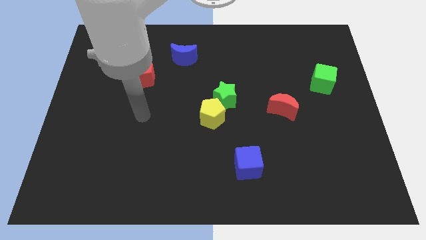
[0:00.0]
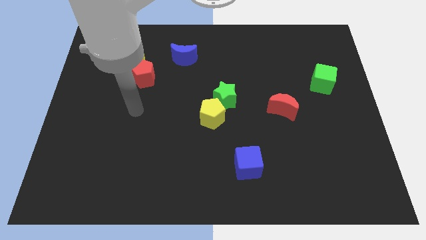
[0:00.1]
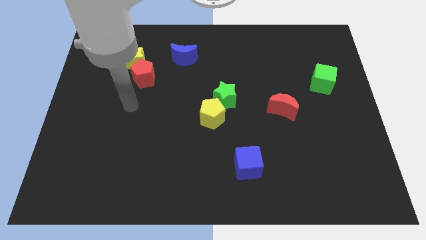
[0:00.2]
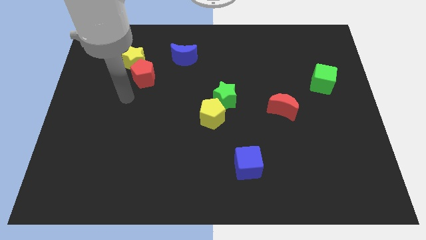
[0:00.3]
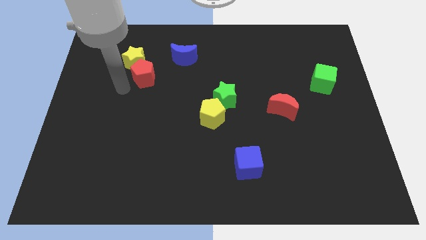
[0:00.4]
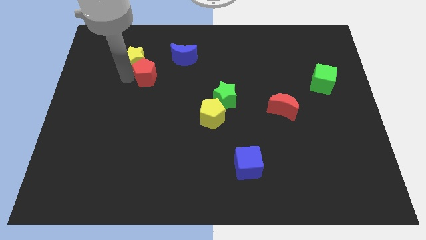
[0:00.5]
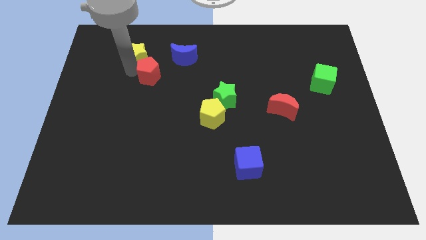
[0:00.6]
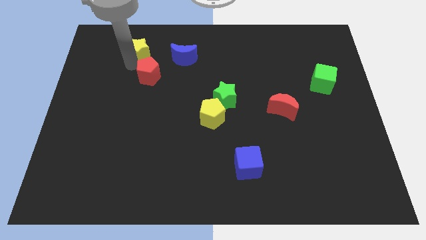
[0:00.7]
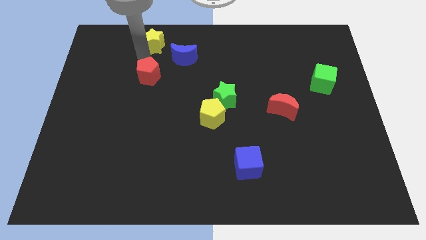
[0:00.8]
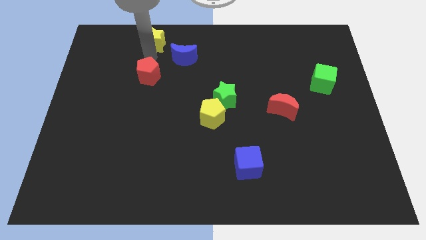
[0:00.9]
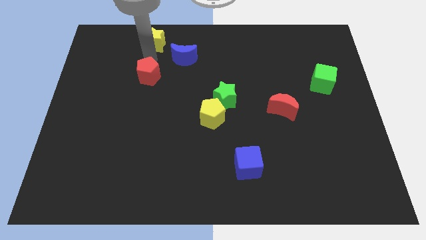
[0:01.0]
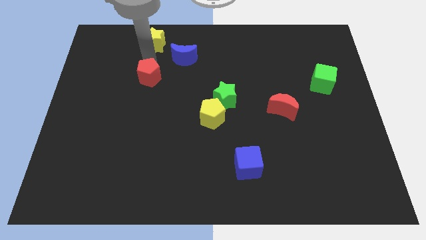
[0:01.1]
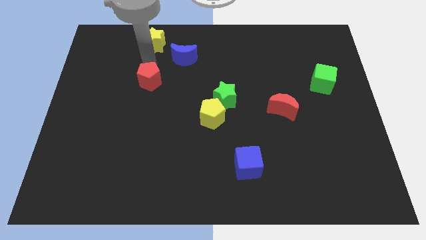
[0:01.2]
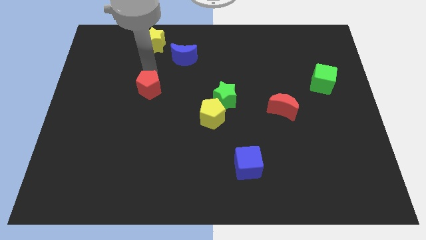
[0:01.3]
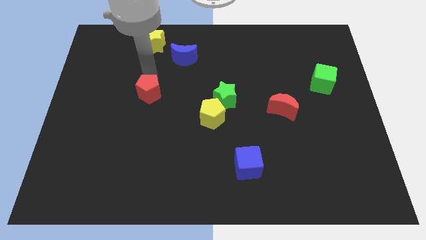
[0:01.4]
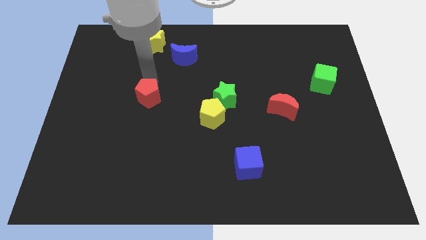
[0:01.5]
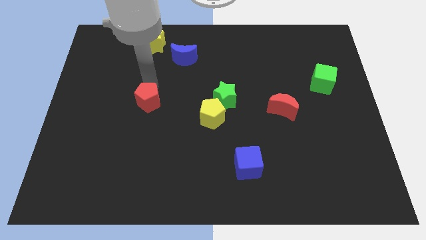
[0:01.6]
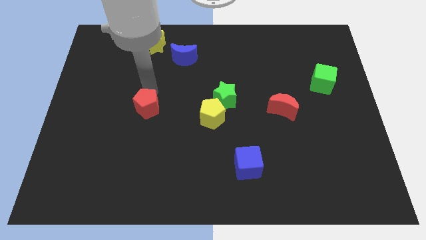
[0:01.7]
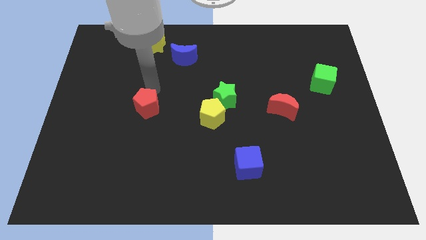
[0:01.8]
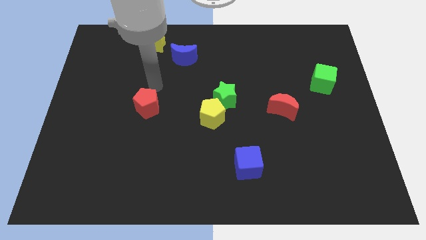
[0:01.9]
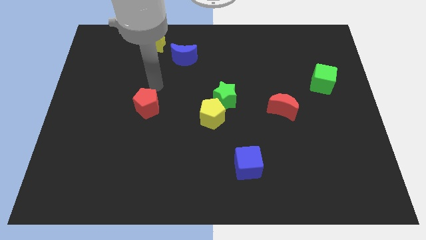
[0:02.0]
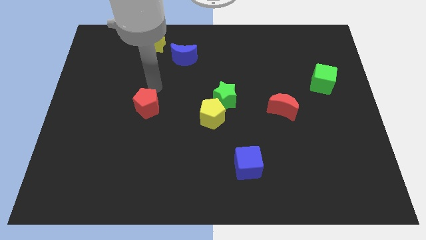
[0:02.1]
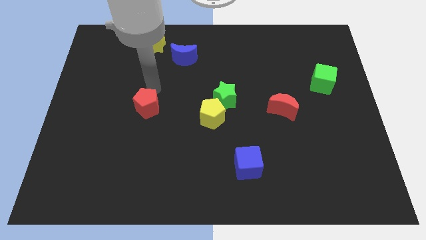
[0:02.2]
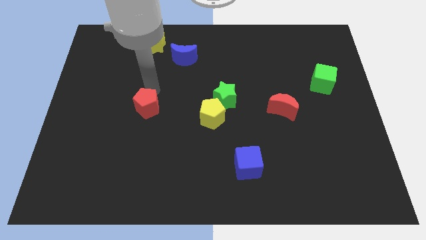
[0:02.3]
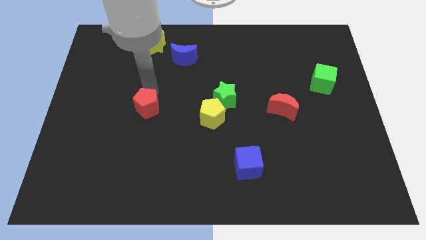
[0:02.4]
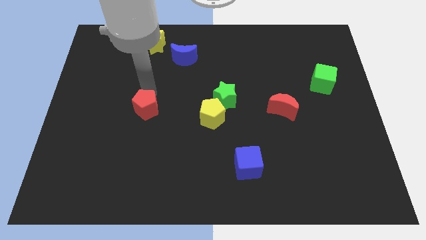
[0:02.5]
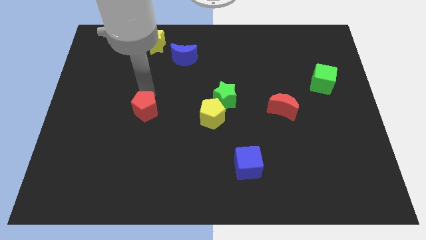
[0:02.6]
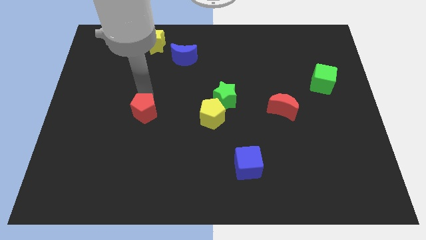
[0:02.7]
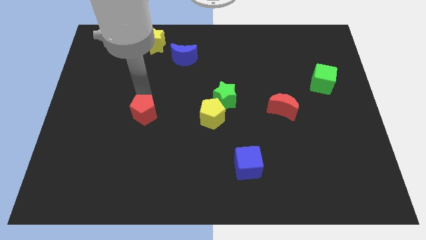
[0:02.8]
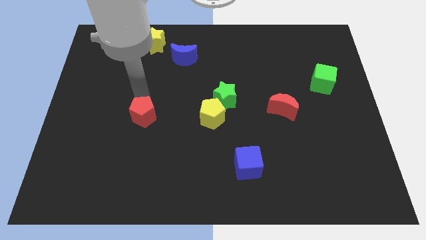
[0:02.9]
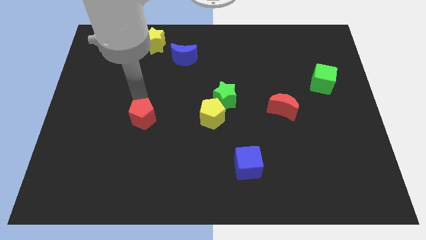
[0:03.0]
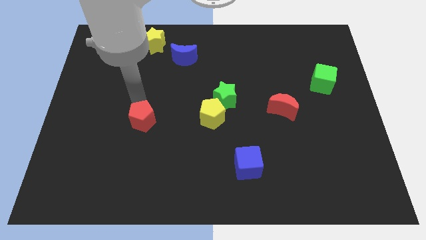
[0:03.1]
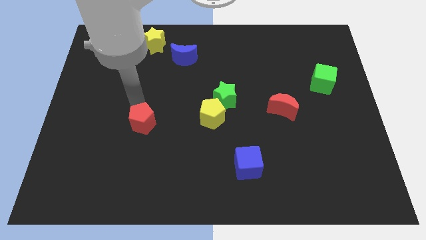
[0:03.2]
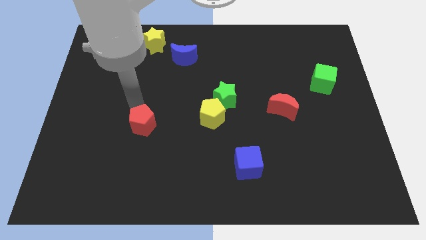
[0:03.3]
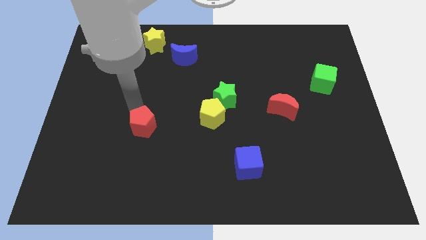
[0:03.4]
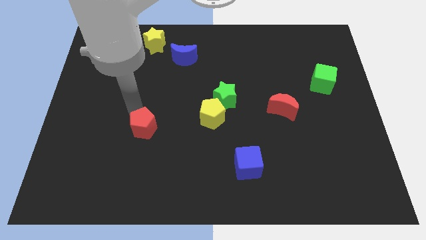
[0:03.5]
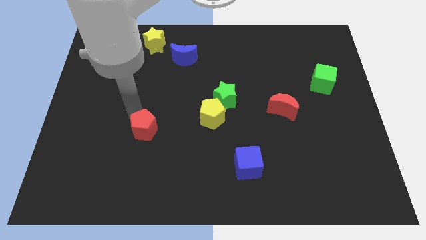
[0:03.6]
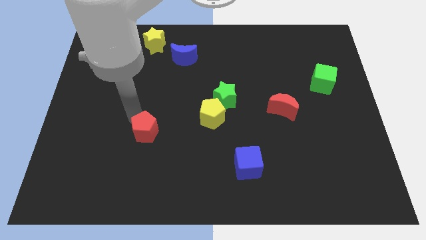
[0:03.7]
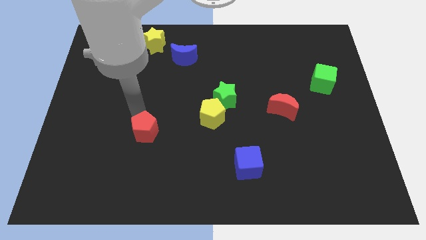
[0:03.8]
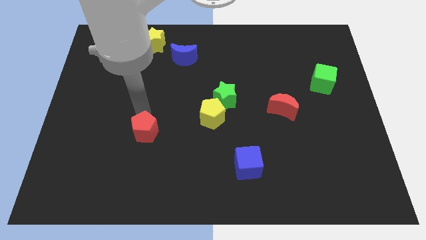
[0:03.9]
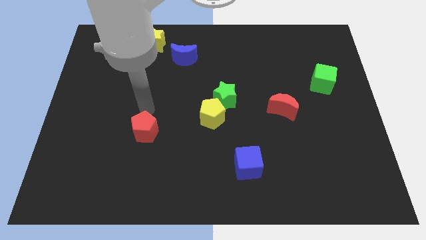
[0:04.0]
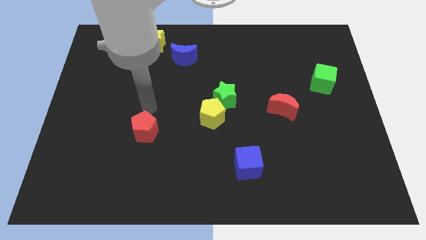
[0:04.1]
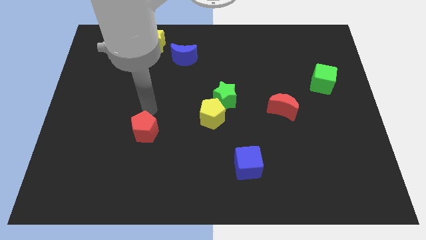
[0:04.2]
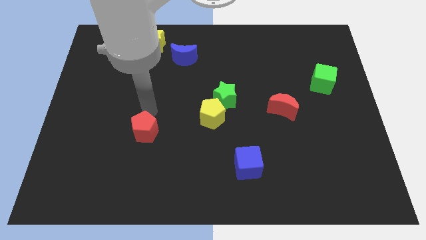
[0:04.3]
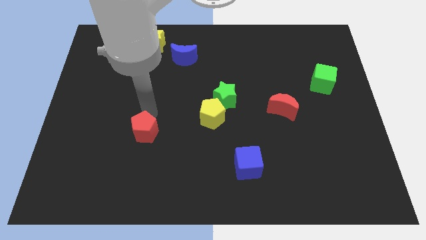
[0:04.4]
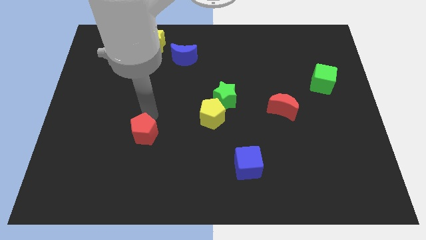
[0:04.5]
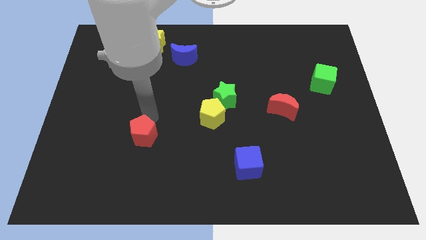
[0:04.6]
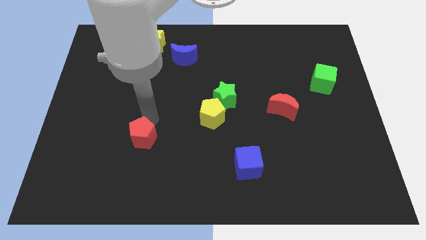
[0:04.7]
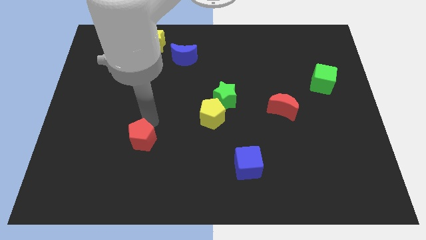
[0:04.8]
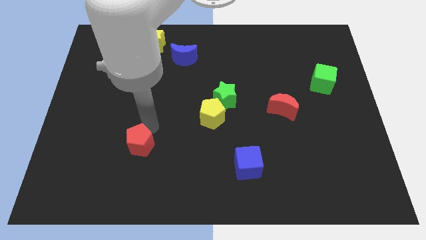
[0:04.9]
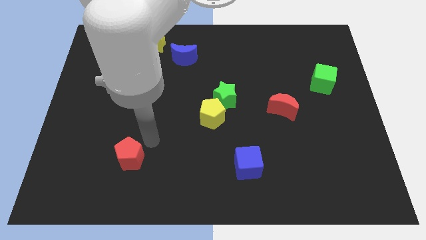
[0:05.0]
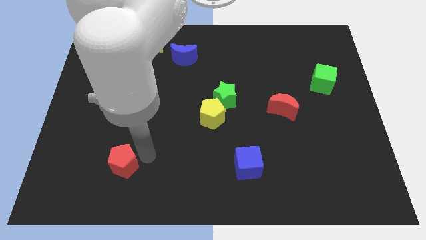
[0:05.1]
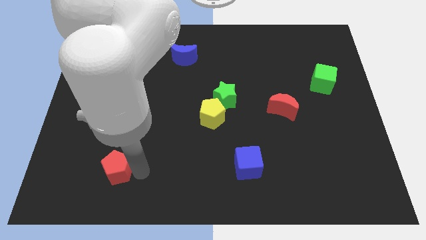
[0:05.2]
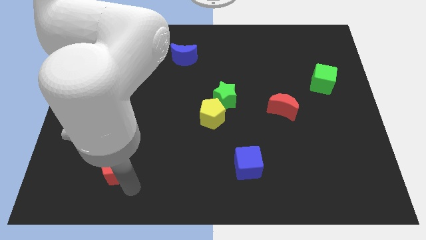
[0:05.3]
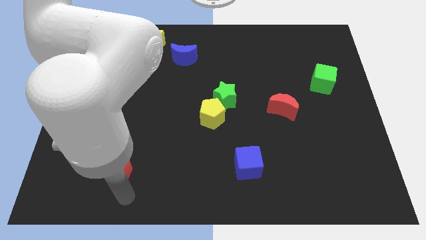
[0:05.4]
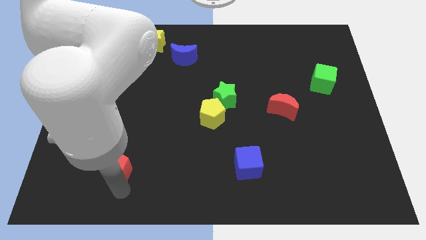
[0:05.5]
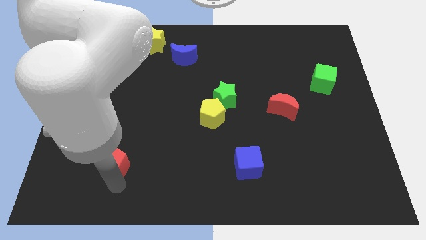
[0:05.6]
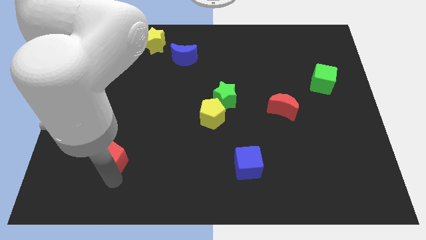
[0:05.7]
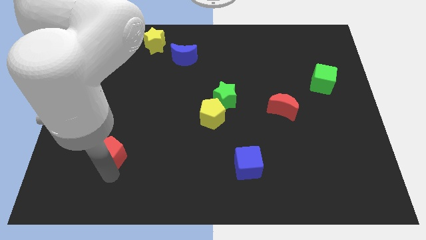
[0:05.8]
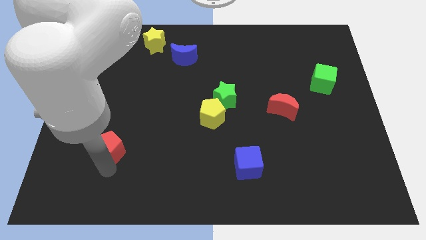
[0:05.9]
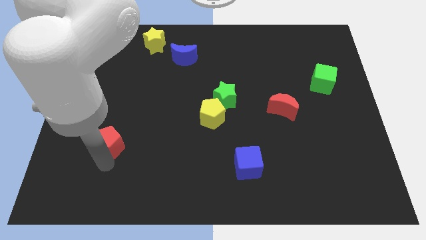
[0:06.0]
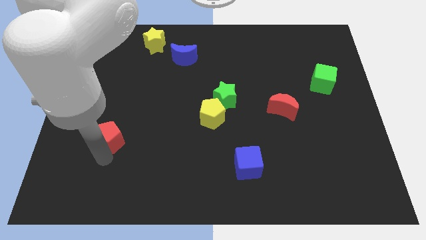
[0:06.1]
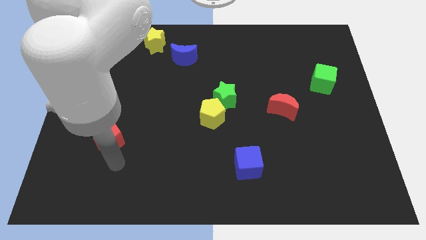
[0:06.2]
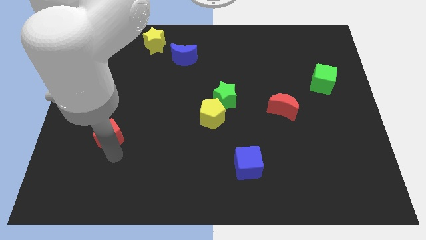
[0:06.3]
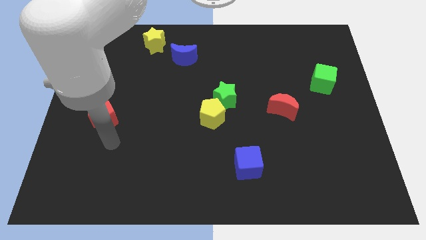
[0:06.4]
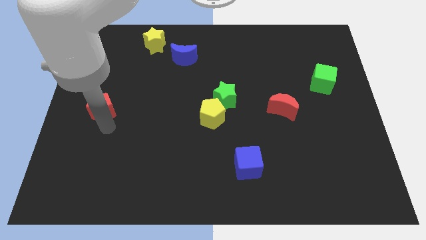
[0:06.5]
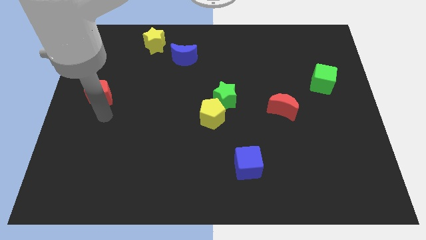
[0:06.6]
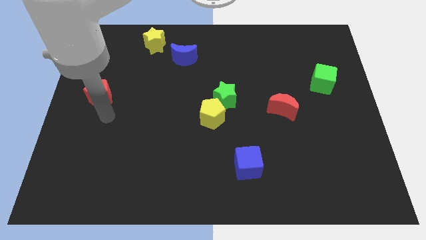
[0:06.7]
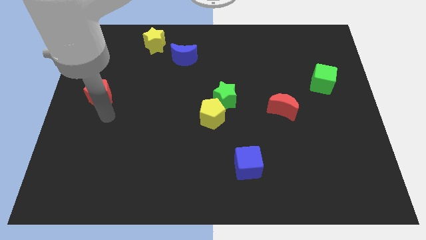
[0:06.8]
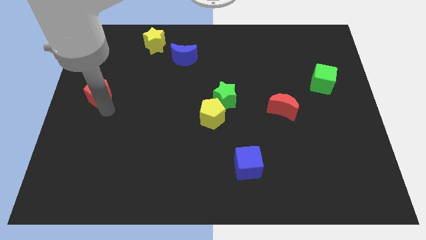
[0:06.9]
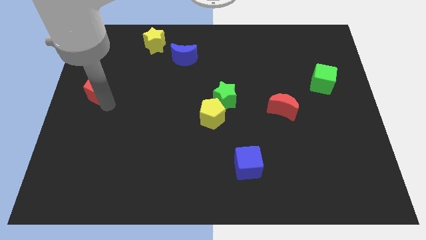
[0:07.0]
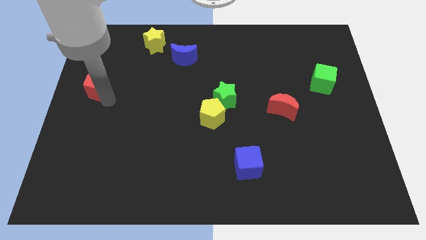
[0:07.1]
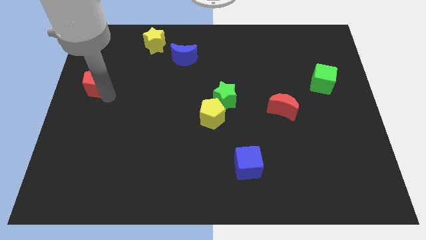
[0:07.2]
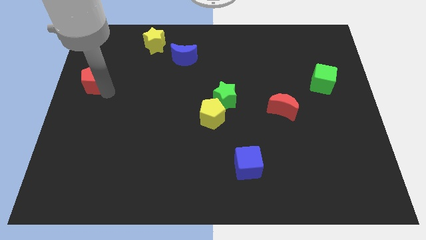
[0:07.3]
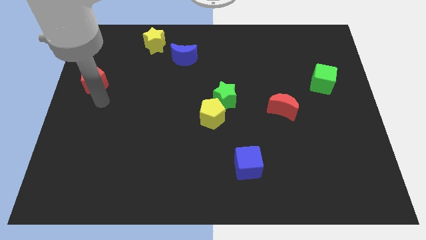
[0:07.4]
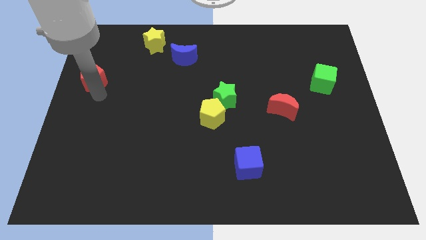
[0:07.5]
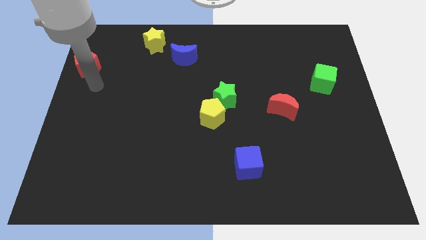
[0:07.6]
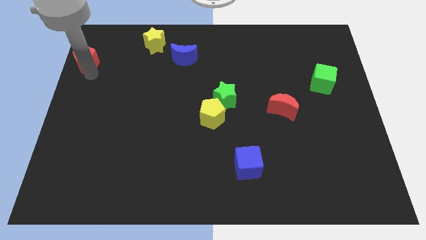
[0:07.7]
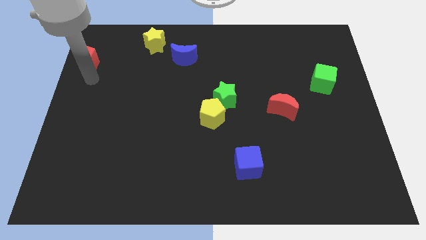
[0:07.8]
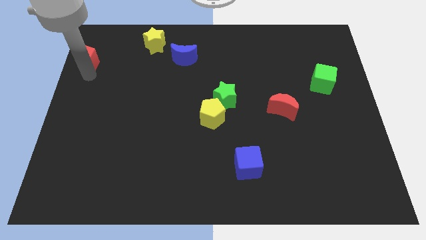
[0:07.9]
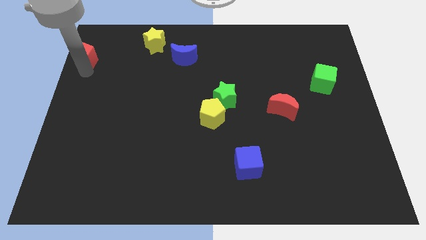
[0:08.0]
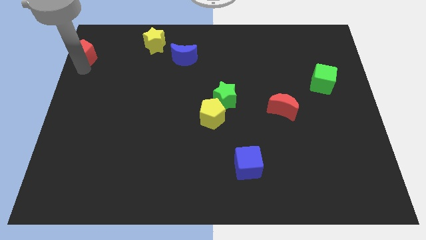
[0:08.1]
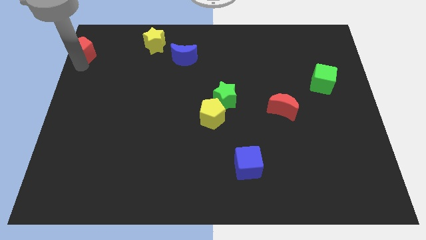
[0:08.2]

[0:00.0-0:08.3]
push the red pentagon to the top left of the board
